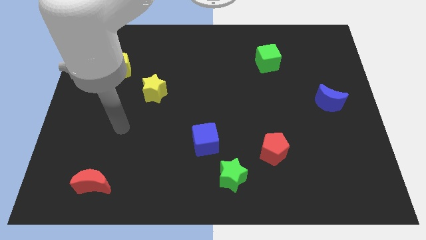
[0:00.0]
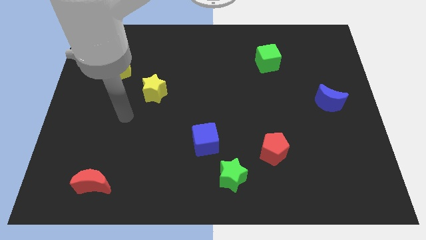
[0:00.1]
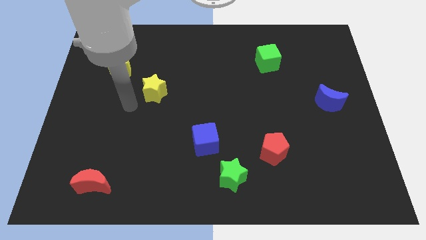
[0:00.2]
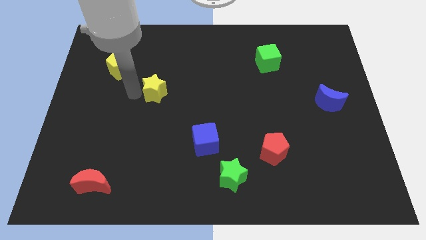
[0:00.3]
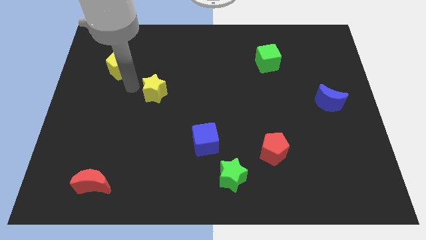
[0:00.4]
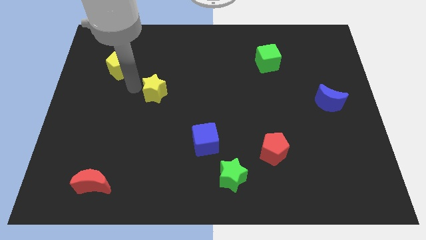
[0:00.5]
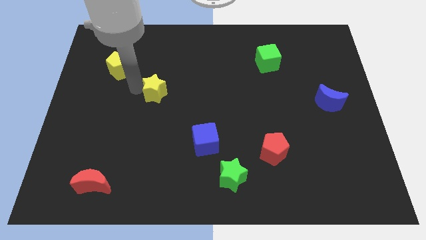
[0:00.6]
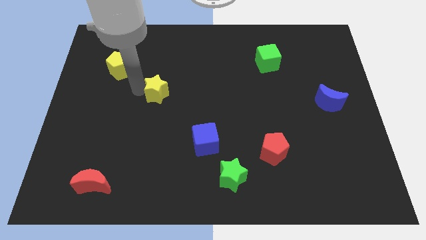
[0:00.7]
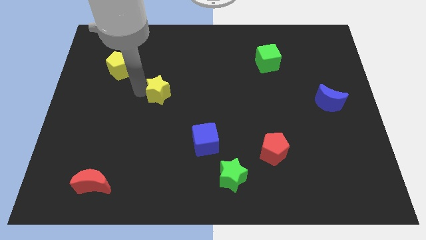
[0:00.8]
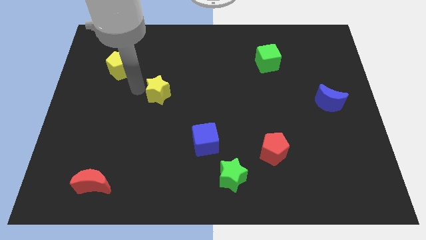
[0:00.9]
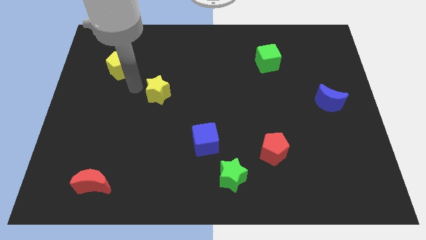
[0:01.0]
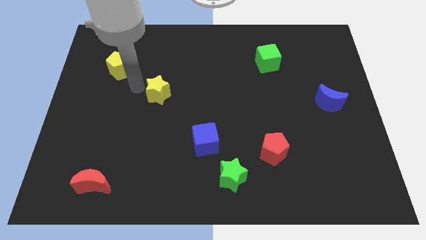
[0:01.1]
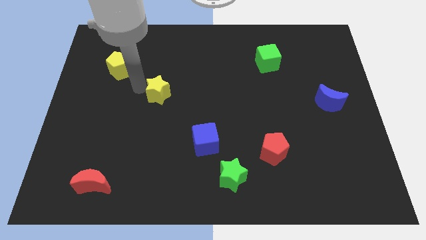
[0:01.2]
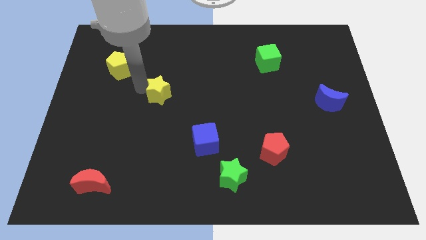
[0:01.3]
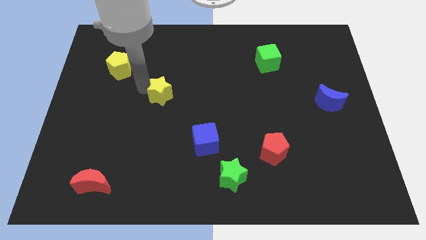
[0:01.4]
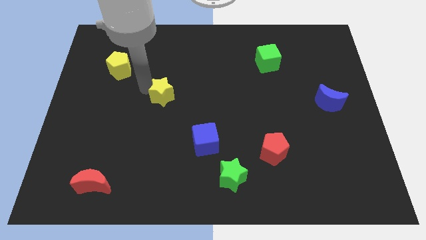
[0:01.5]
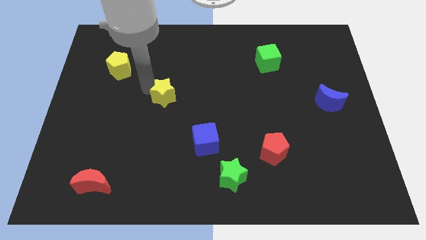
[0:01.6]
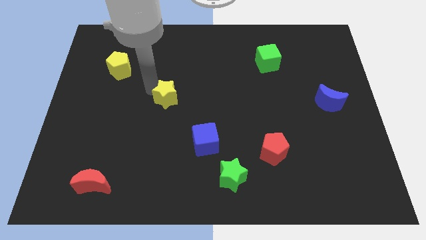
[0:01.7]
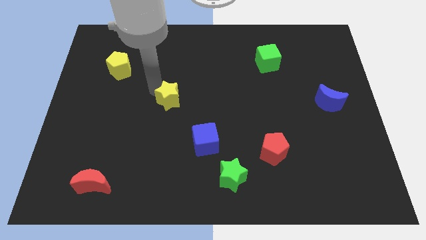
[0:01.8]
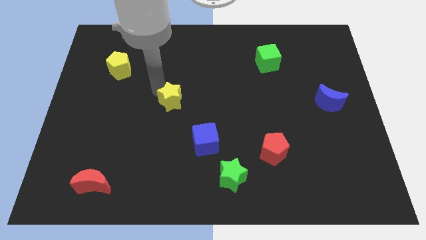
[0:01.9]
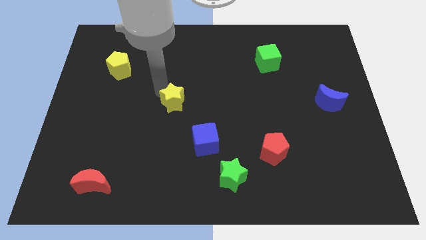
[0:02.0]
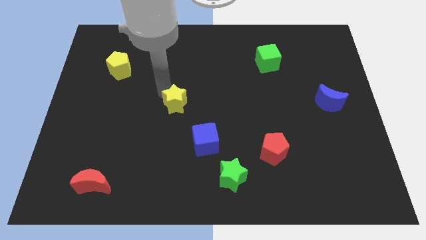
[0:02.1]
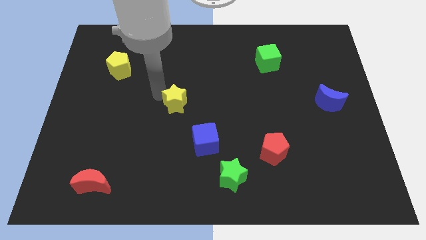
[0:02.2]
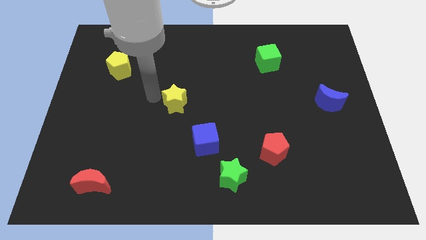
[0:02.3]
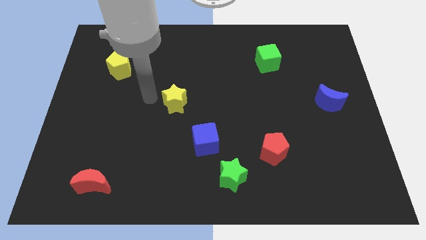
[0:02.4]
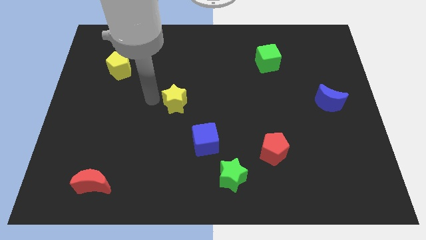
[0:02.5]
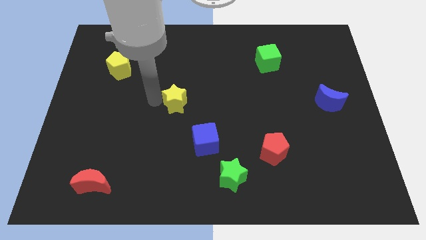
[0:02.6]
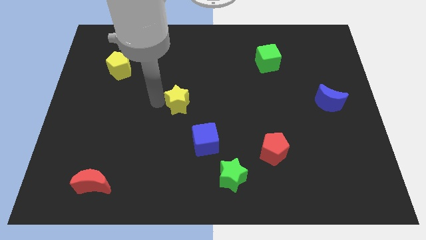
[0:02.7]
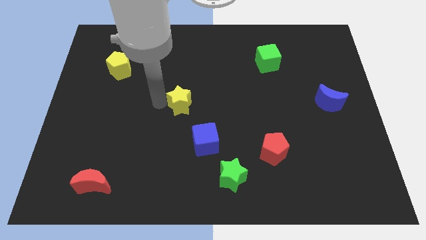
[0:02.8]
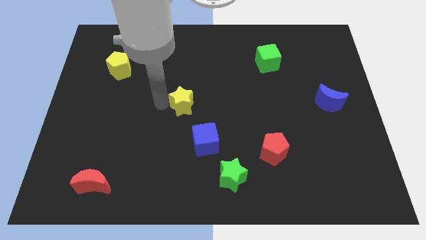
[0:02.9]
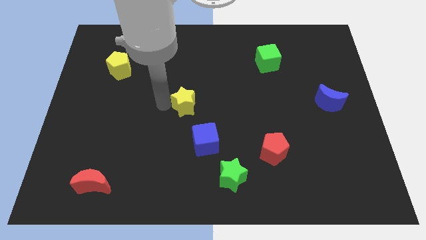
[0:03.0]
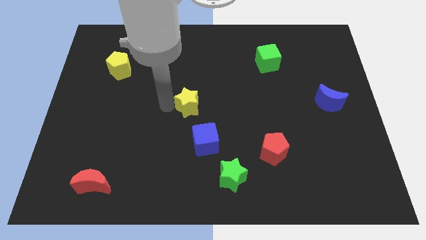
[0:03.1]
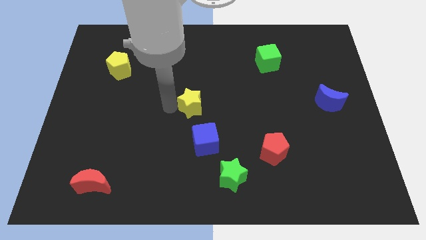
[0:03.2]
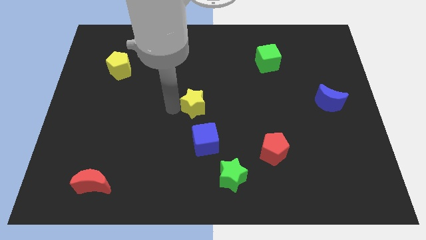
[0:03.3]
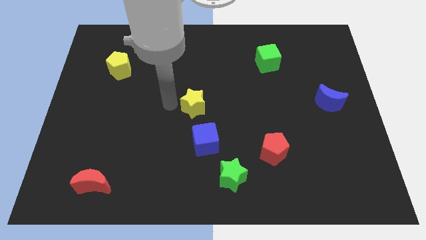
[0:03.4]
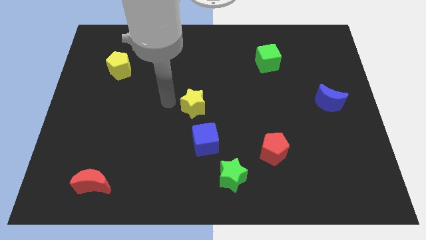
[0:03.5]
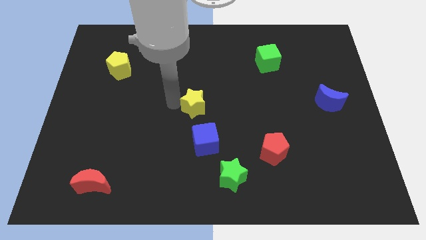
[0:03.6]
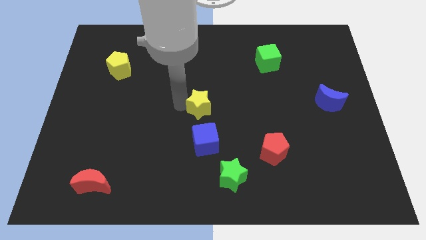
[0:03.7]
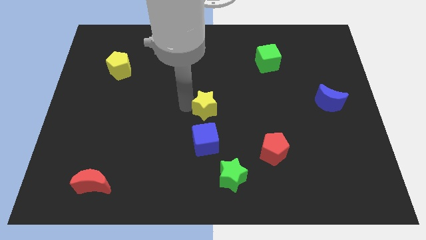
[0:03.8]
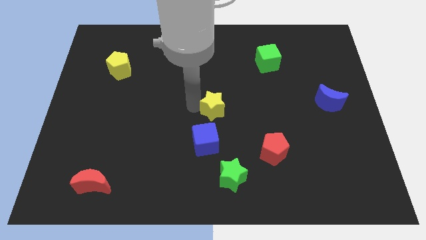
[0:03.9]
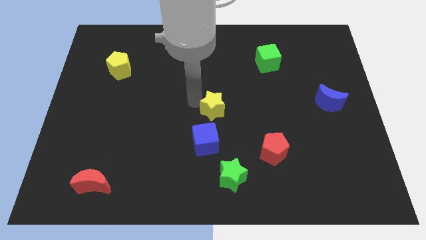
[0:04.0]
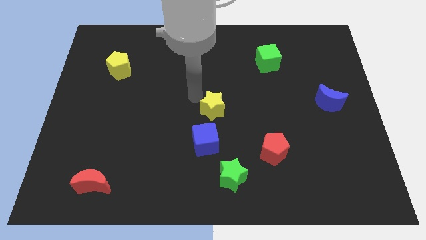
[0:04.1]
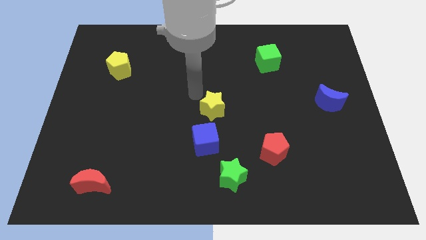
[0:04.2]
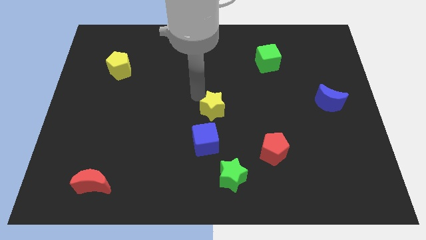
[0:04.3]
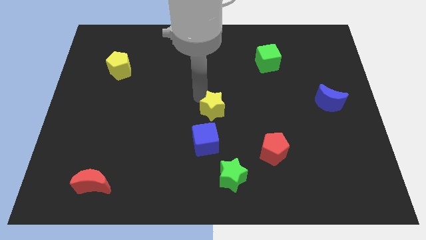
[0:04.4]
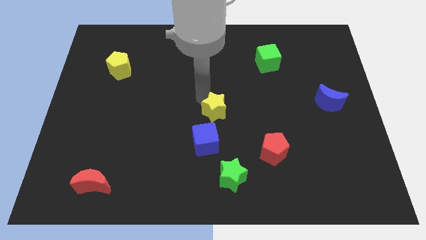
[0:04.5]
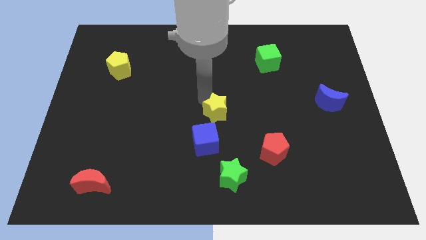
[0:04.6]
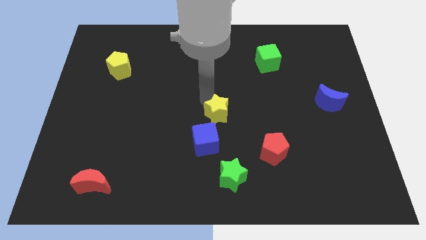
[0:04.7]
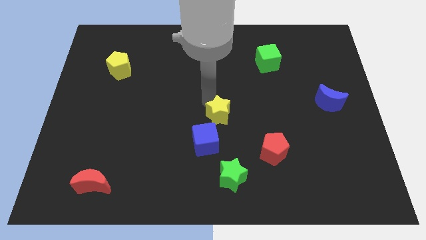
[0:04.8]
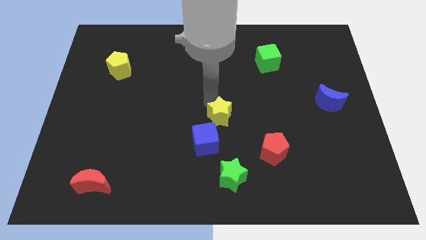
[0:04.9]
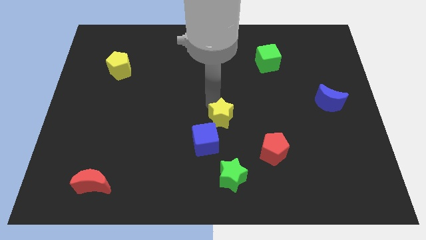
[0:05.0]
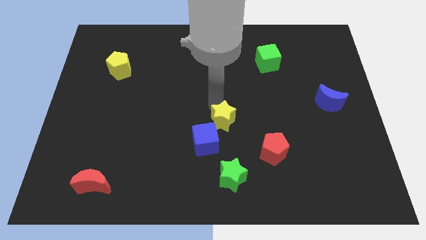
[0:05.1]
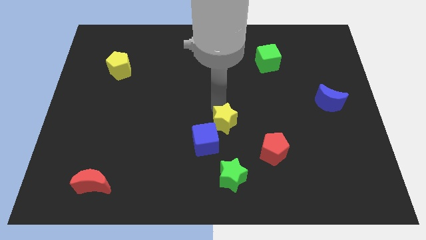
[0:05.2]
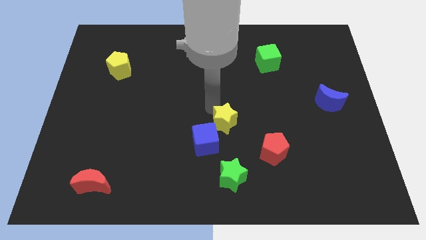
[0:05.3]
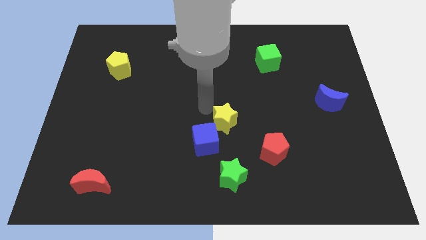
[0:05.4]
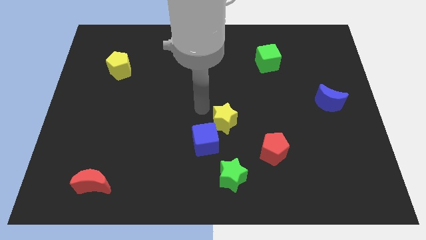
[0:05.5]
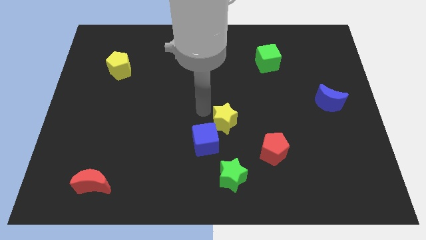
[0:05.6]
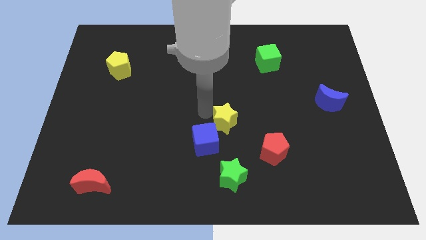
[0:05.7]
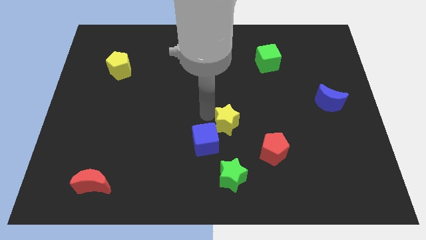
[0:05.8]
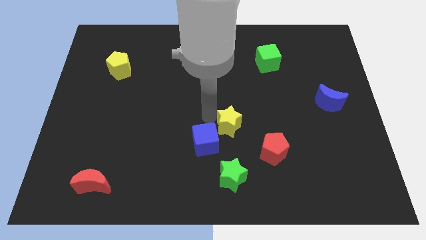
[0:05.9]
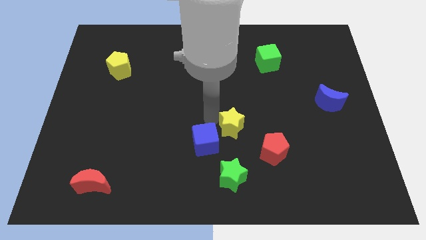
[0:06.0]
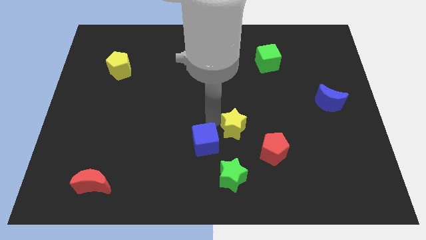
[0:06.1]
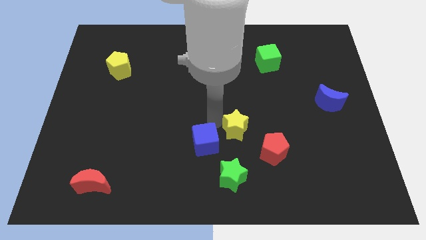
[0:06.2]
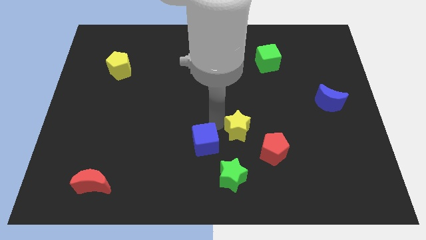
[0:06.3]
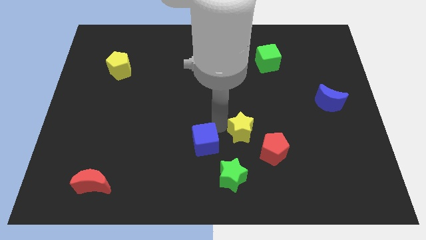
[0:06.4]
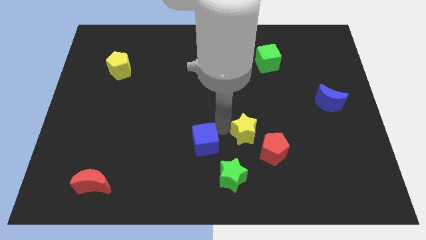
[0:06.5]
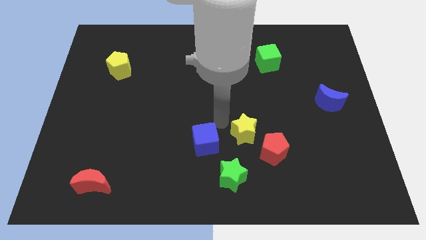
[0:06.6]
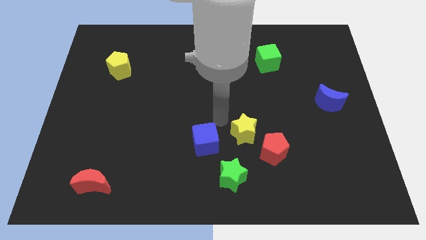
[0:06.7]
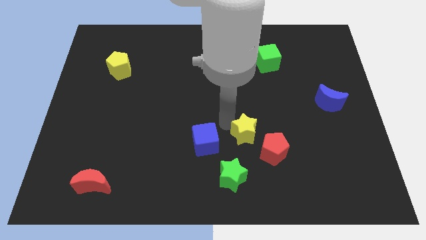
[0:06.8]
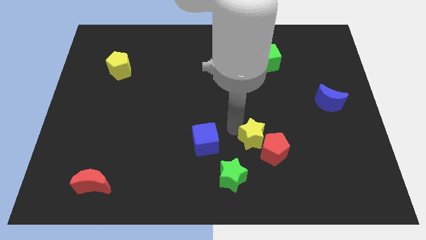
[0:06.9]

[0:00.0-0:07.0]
put the yellow star next to the red pentagon
